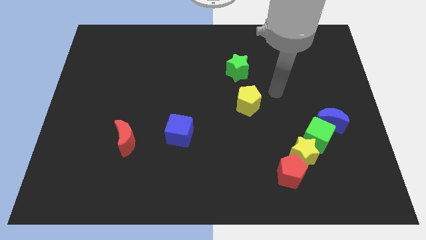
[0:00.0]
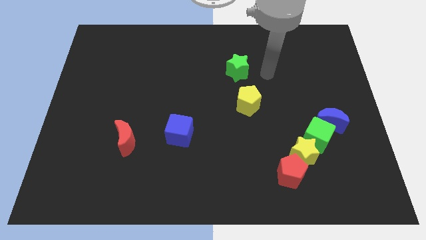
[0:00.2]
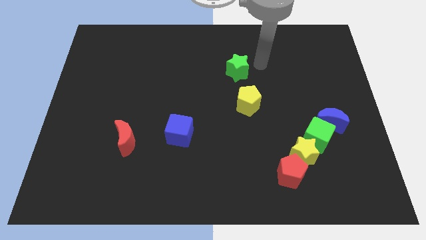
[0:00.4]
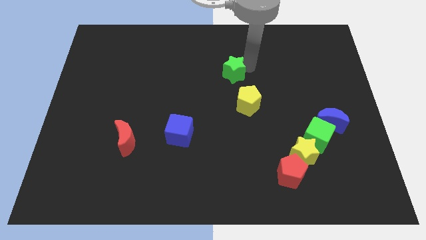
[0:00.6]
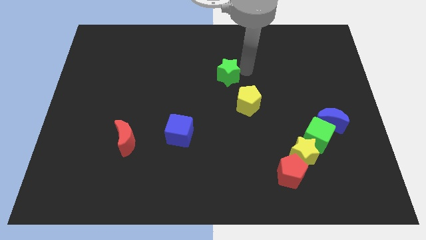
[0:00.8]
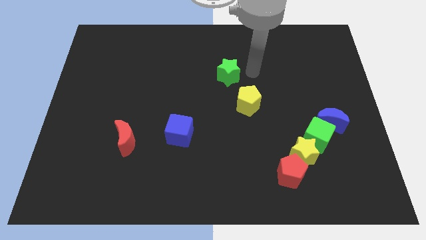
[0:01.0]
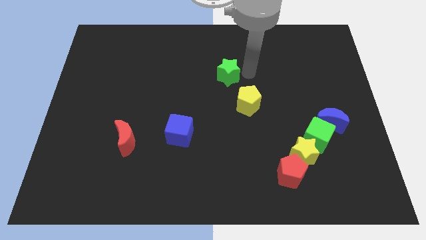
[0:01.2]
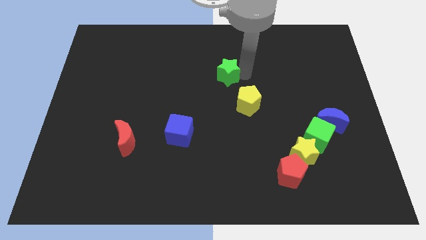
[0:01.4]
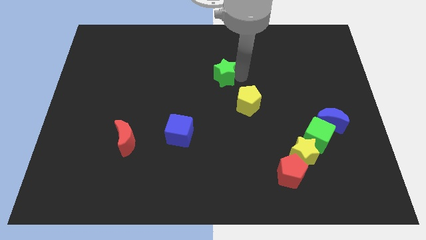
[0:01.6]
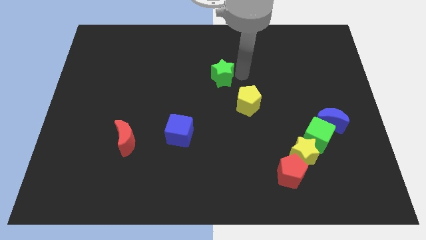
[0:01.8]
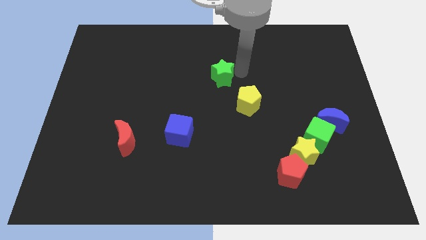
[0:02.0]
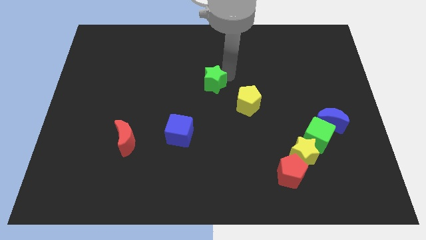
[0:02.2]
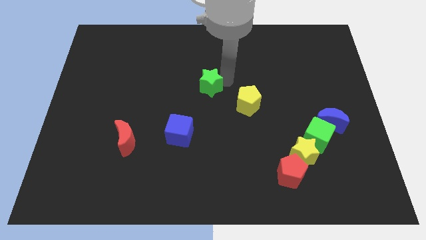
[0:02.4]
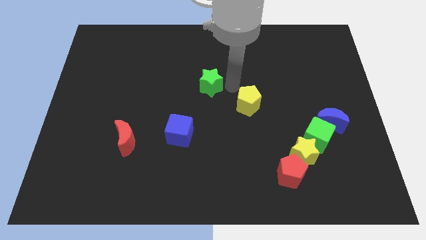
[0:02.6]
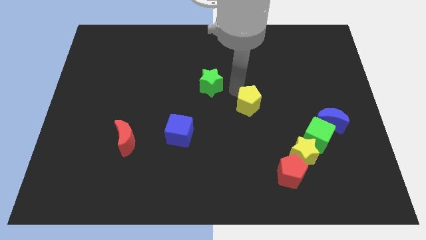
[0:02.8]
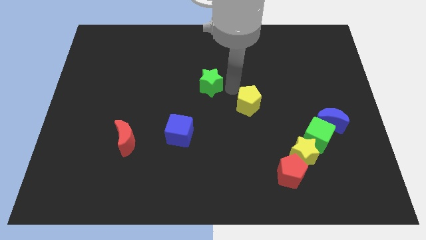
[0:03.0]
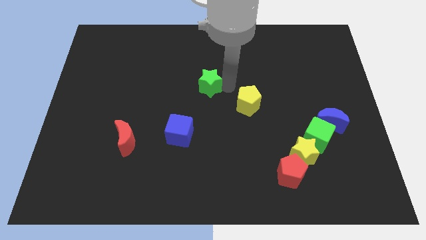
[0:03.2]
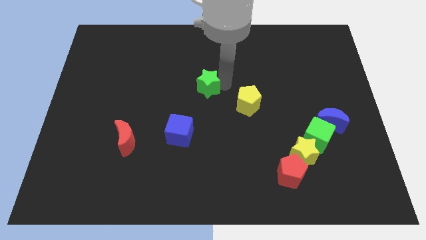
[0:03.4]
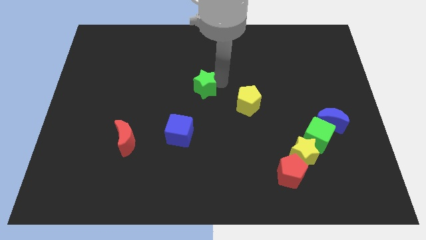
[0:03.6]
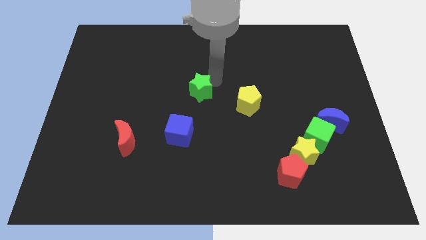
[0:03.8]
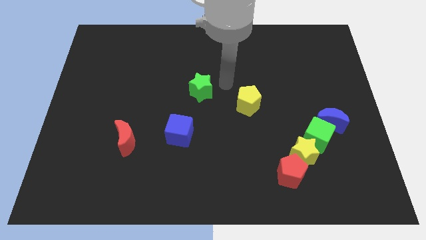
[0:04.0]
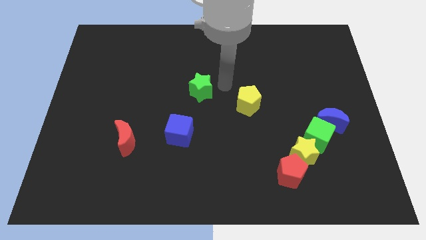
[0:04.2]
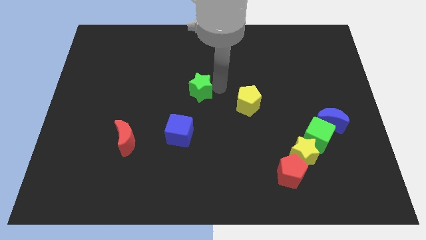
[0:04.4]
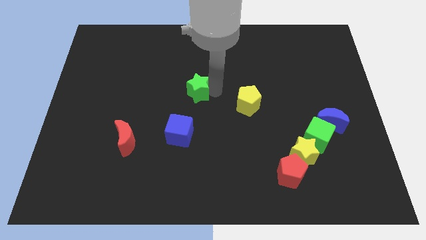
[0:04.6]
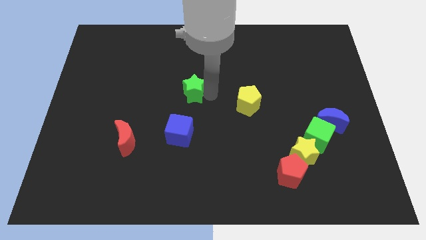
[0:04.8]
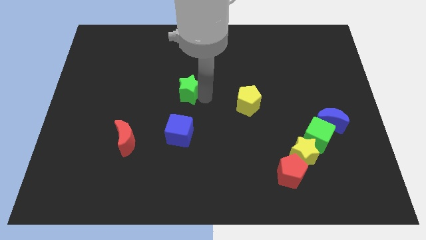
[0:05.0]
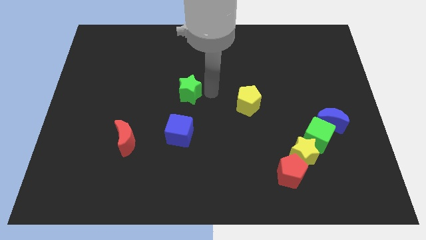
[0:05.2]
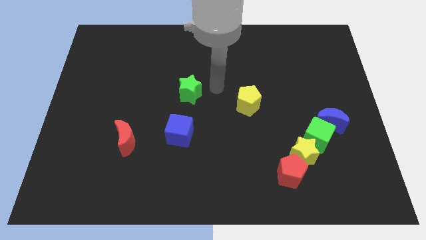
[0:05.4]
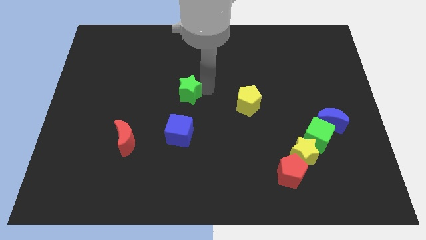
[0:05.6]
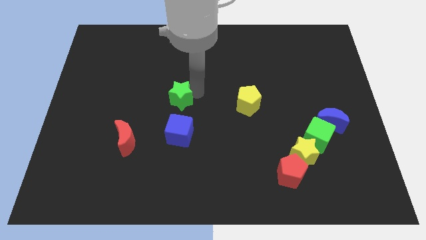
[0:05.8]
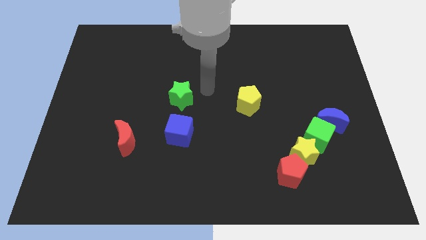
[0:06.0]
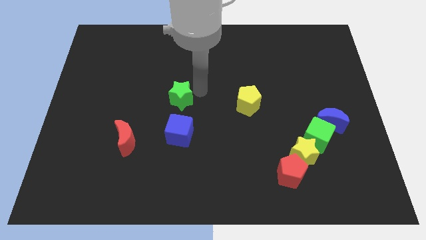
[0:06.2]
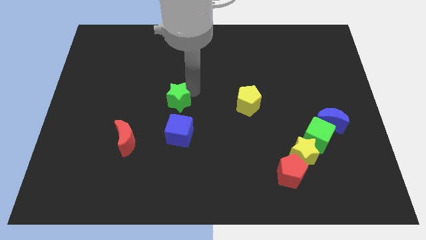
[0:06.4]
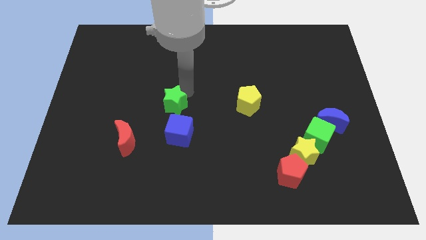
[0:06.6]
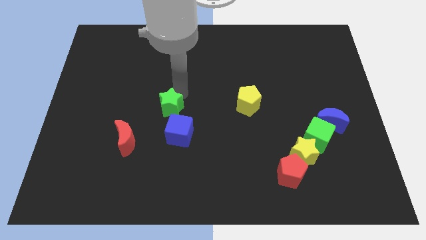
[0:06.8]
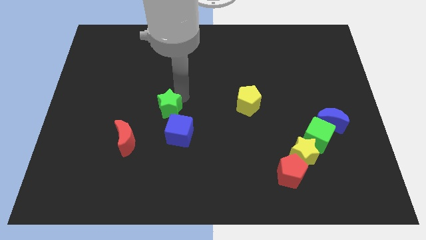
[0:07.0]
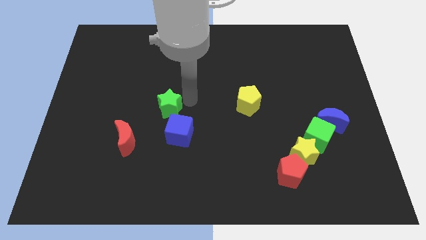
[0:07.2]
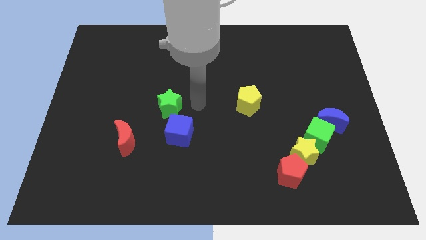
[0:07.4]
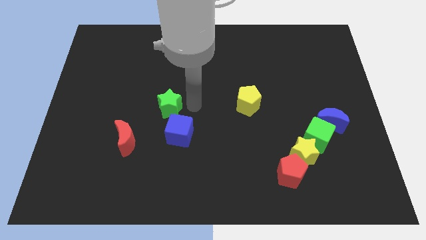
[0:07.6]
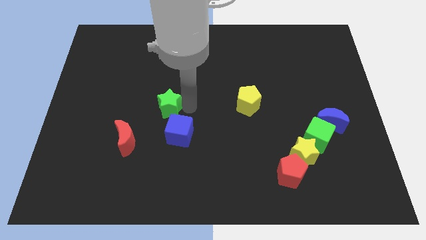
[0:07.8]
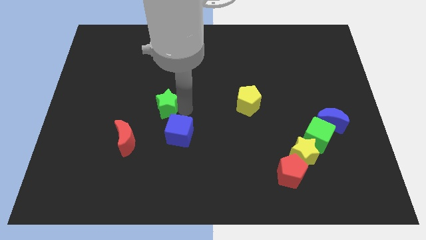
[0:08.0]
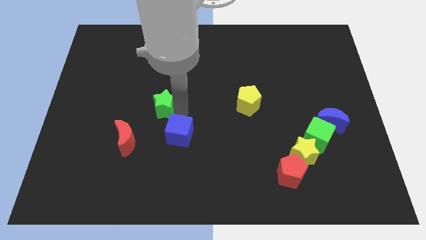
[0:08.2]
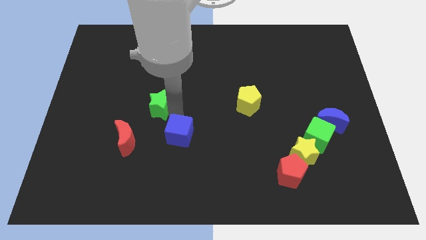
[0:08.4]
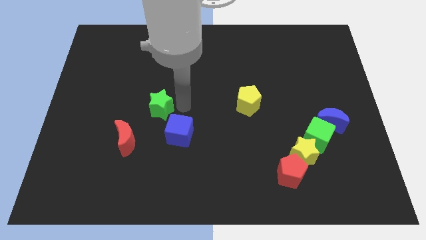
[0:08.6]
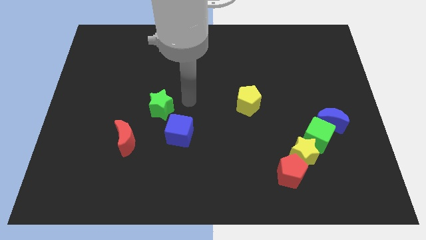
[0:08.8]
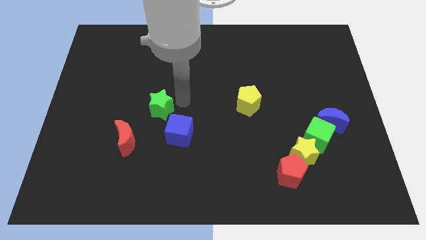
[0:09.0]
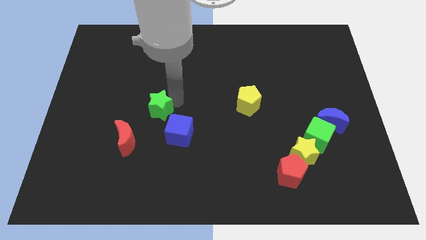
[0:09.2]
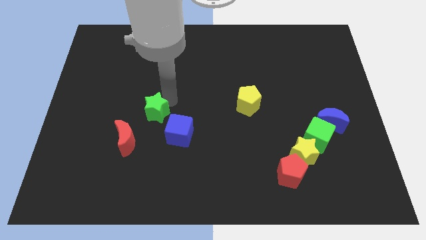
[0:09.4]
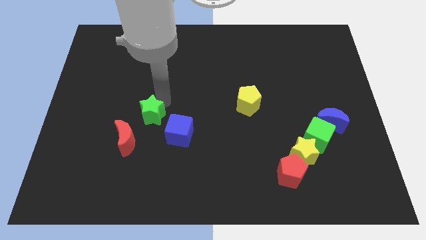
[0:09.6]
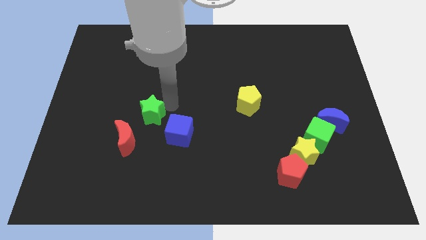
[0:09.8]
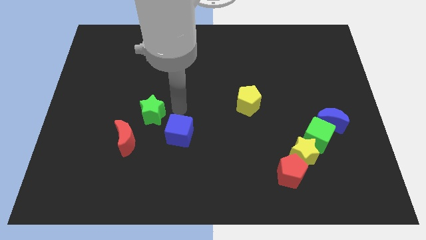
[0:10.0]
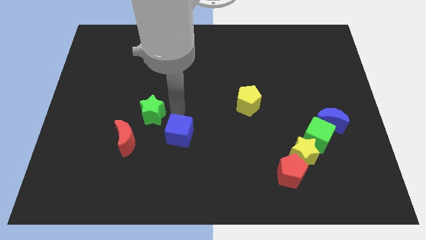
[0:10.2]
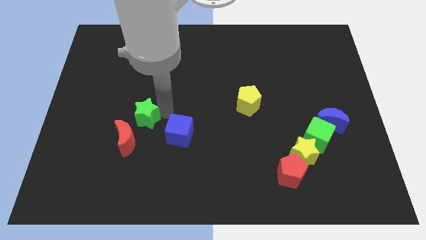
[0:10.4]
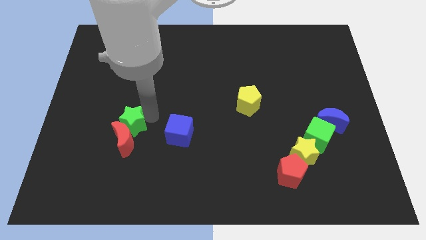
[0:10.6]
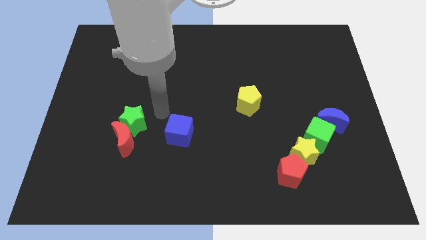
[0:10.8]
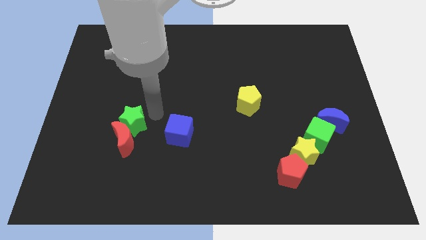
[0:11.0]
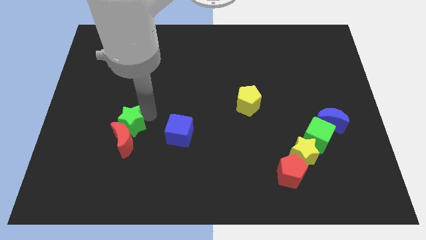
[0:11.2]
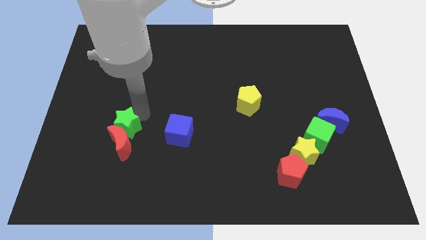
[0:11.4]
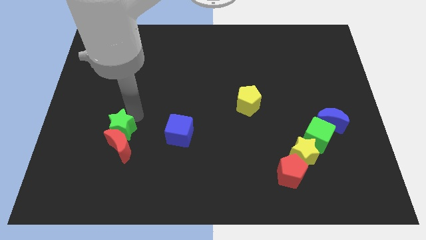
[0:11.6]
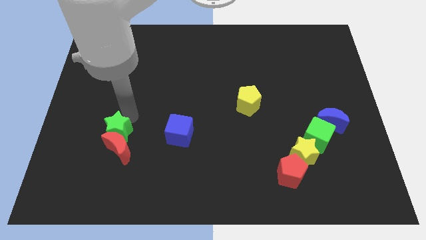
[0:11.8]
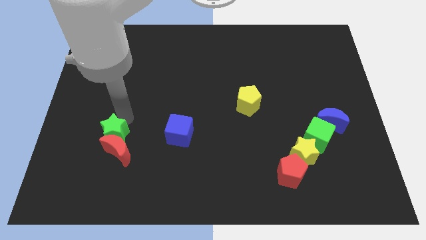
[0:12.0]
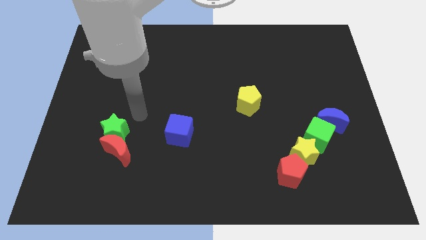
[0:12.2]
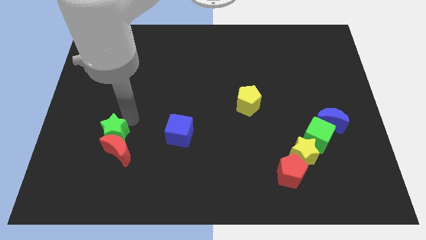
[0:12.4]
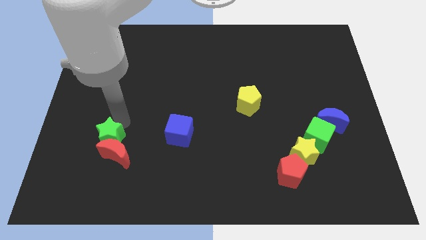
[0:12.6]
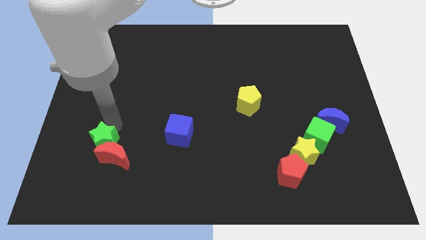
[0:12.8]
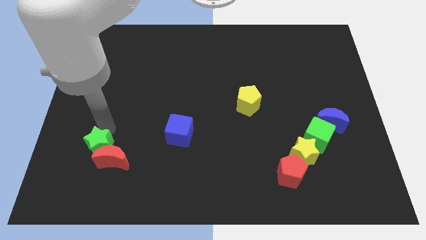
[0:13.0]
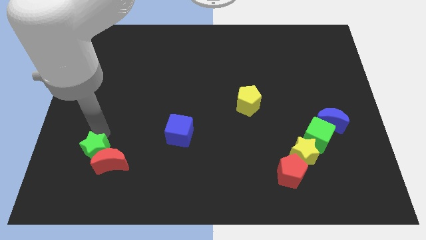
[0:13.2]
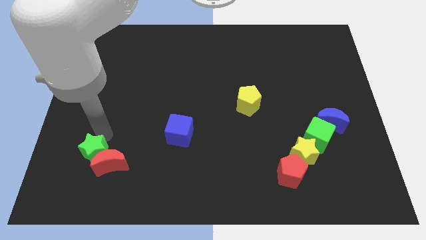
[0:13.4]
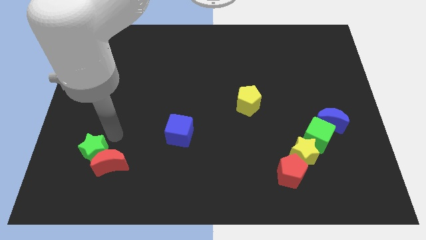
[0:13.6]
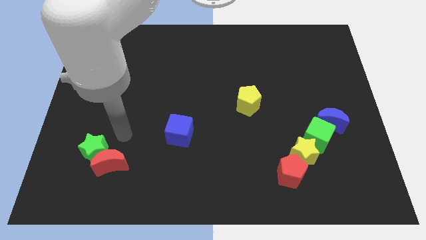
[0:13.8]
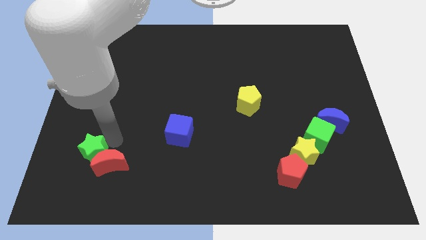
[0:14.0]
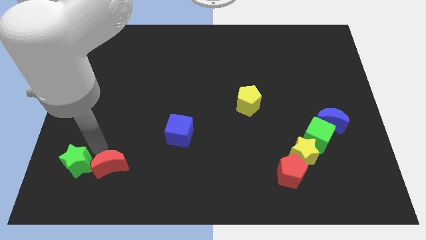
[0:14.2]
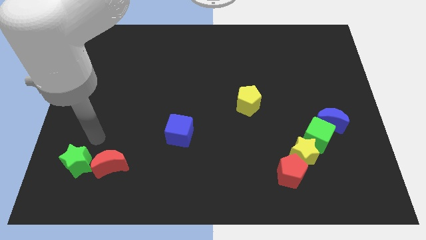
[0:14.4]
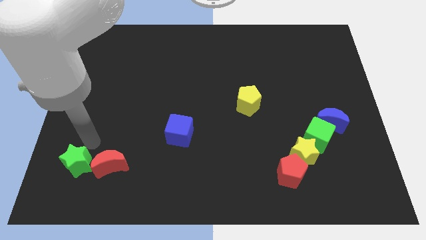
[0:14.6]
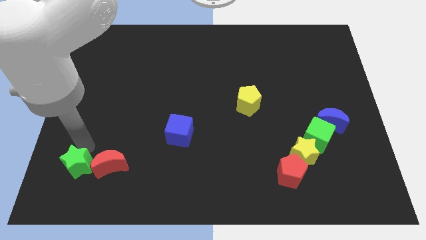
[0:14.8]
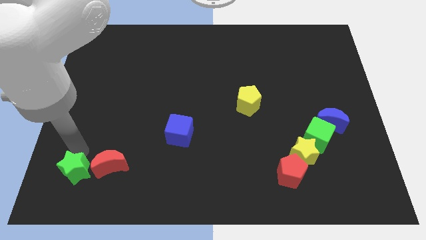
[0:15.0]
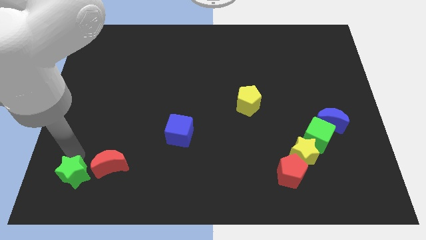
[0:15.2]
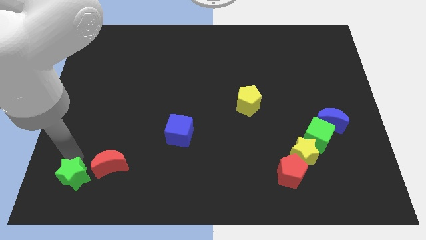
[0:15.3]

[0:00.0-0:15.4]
slide the green star to the lower left corner
